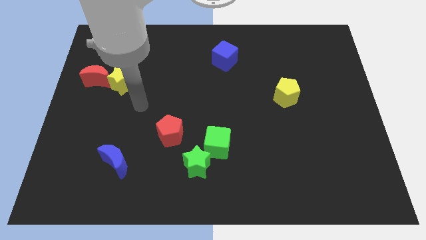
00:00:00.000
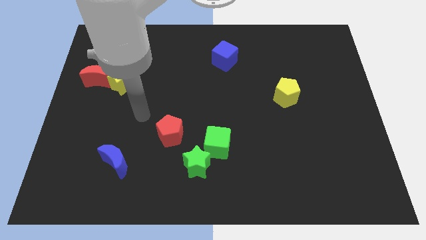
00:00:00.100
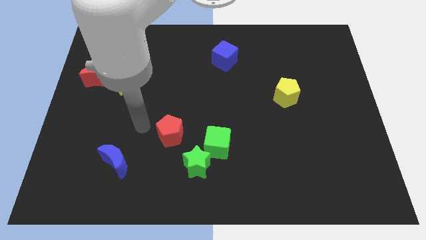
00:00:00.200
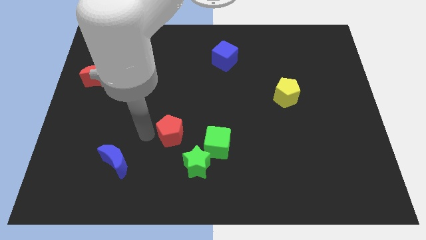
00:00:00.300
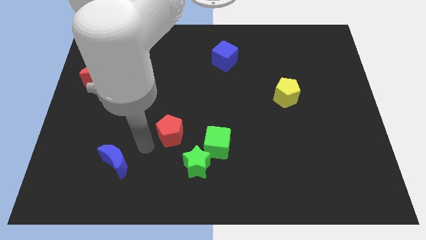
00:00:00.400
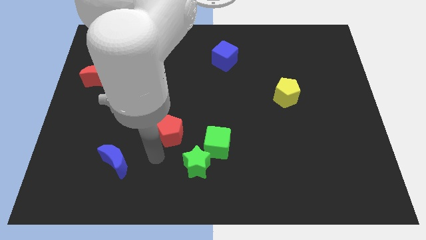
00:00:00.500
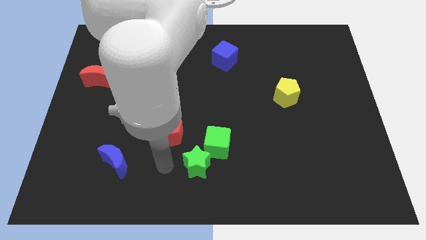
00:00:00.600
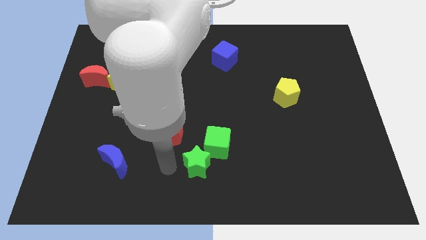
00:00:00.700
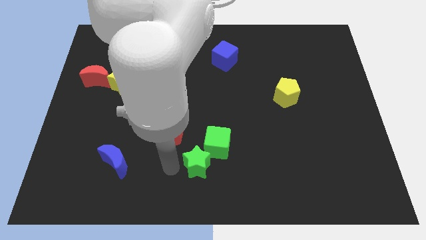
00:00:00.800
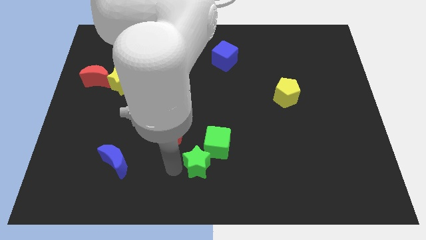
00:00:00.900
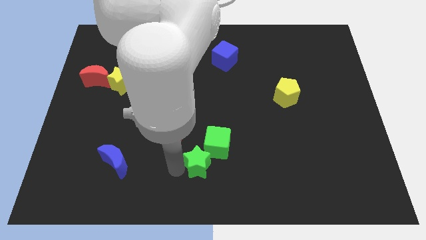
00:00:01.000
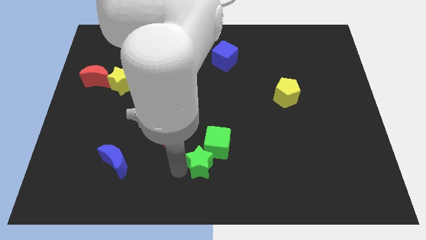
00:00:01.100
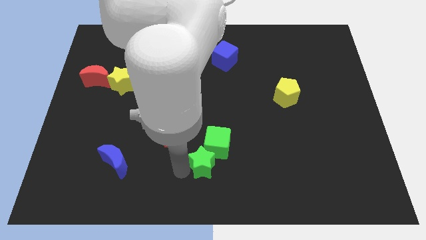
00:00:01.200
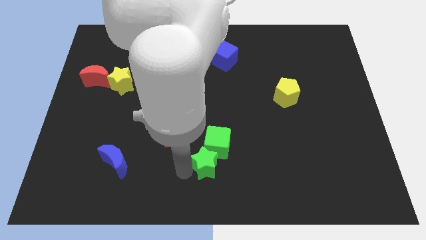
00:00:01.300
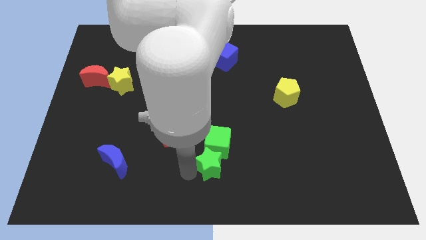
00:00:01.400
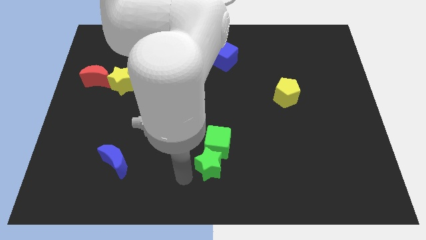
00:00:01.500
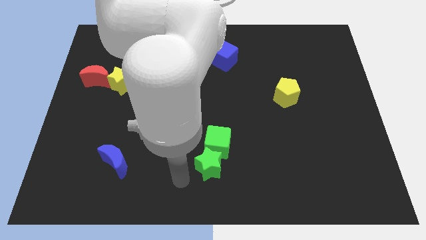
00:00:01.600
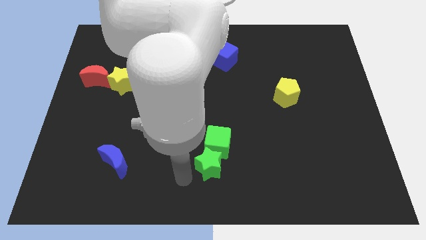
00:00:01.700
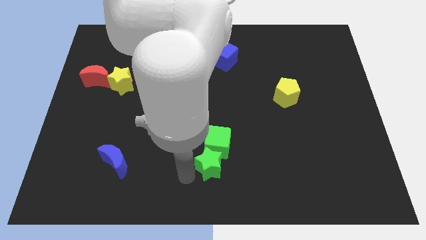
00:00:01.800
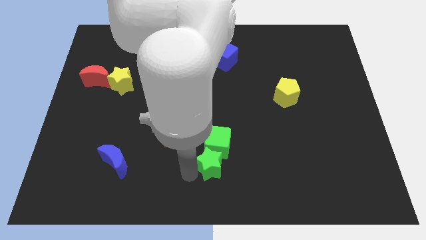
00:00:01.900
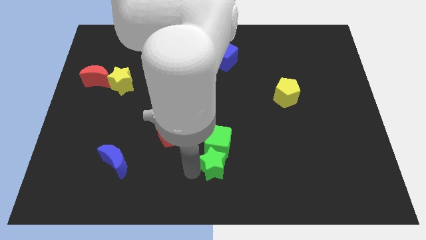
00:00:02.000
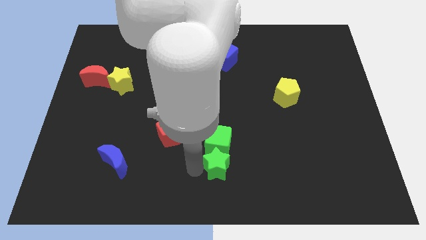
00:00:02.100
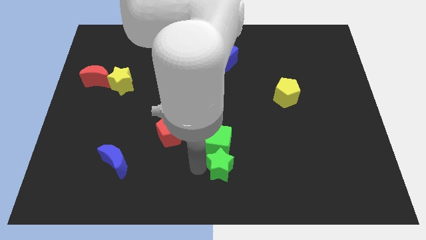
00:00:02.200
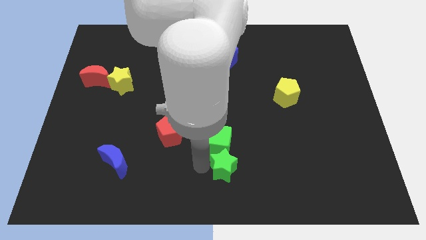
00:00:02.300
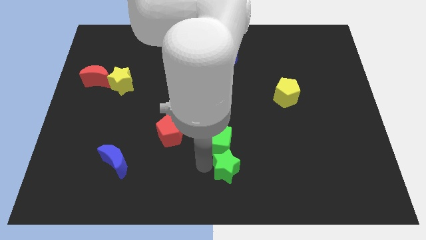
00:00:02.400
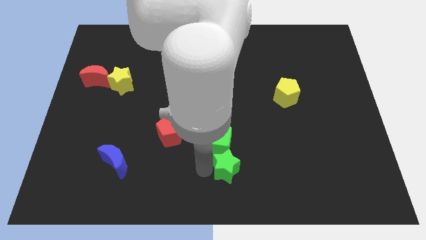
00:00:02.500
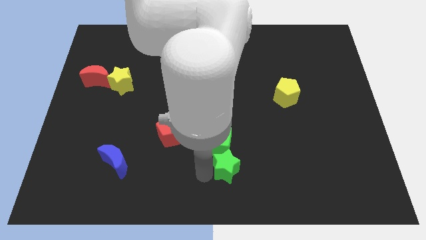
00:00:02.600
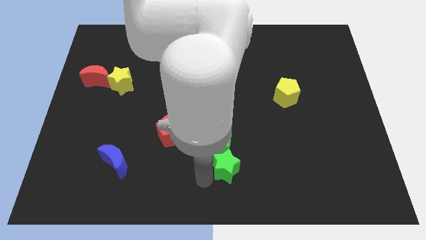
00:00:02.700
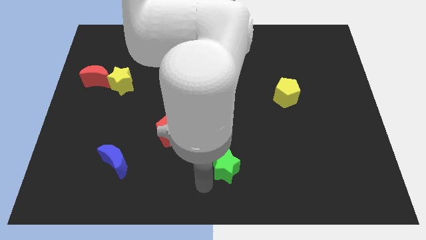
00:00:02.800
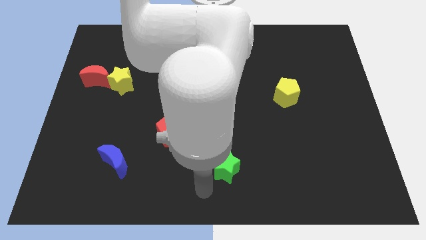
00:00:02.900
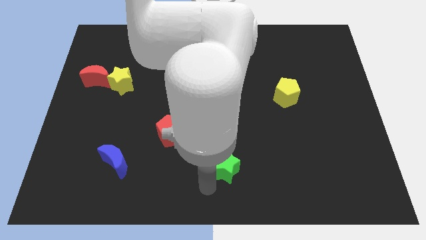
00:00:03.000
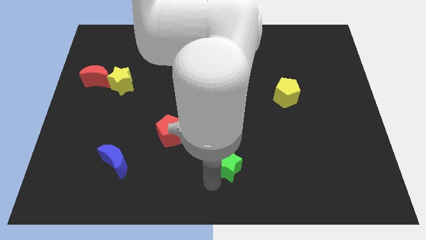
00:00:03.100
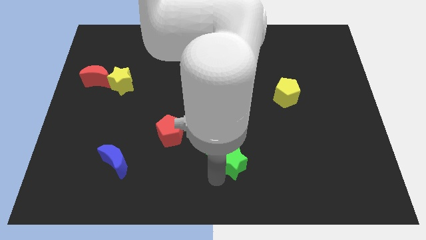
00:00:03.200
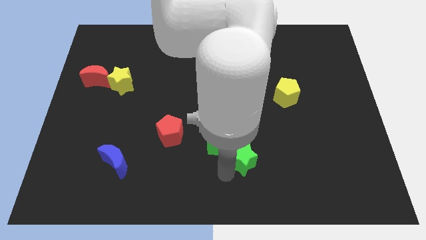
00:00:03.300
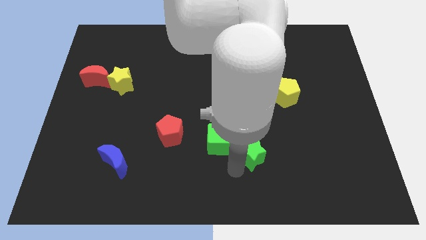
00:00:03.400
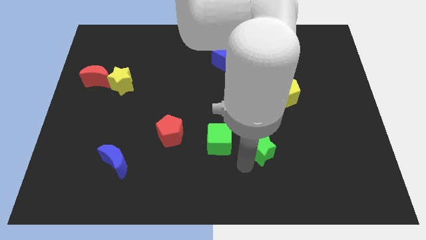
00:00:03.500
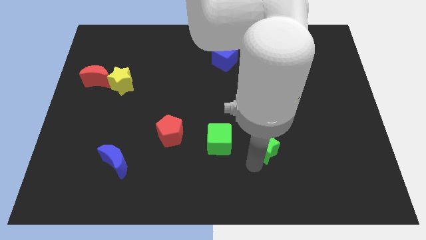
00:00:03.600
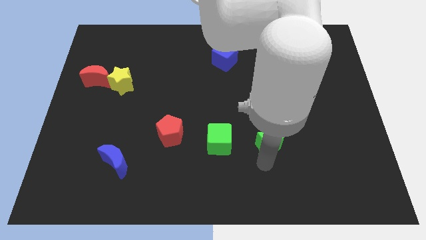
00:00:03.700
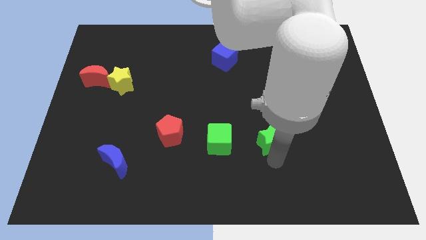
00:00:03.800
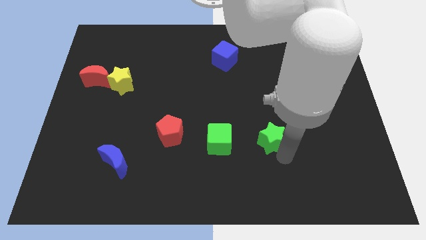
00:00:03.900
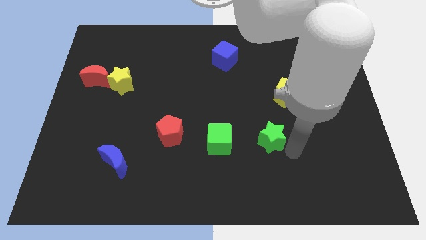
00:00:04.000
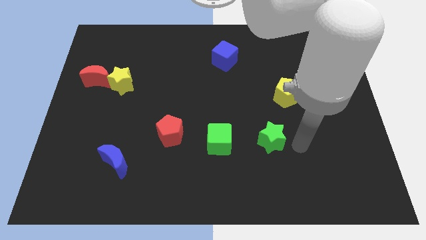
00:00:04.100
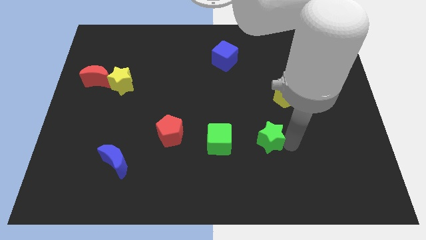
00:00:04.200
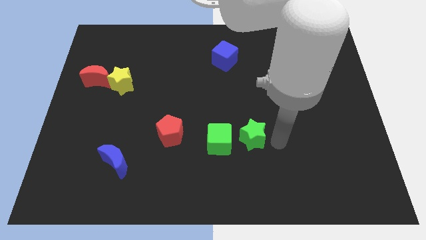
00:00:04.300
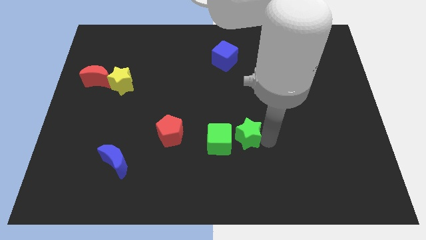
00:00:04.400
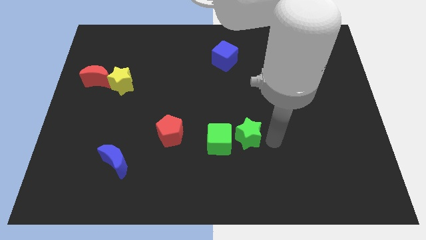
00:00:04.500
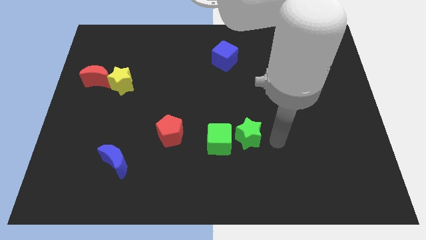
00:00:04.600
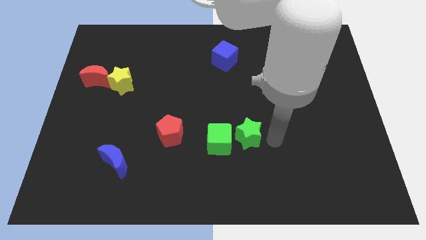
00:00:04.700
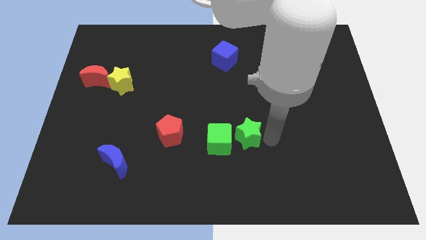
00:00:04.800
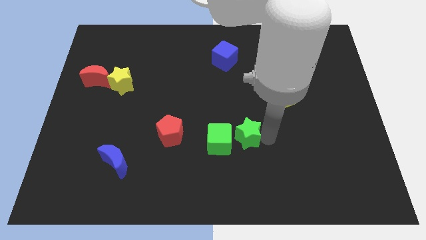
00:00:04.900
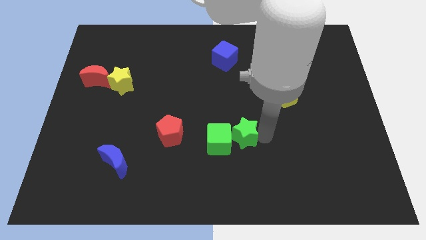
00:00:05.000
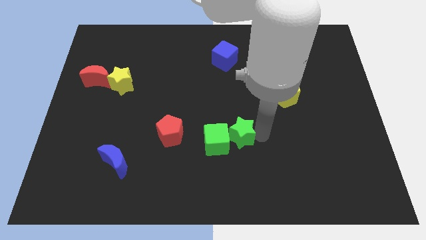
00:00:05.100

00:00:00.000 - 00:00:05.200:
move the green star right of the red pentagon

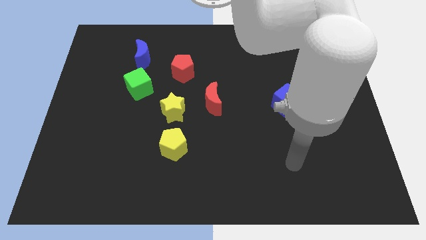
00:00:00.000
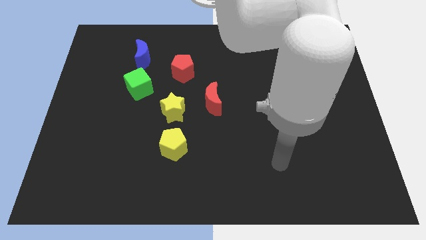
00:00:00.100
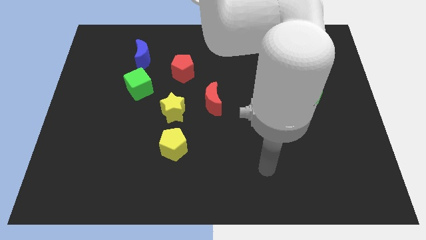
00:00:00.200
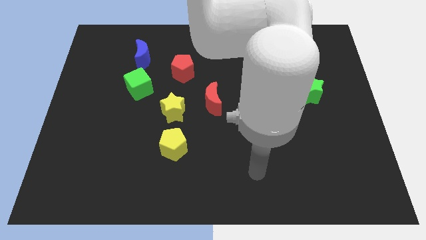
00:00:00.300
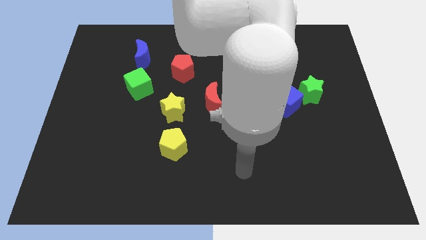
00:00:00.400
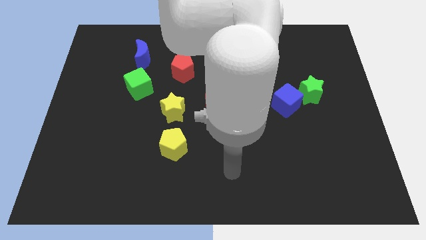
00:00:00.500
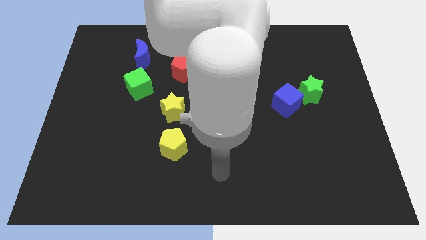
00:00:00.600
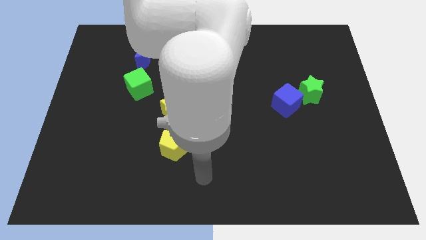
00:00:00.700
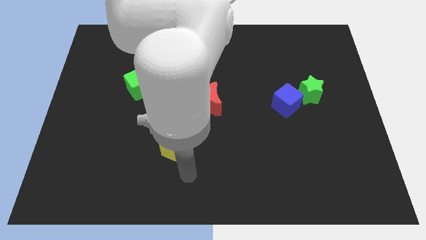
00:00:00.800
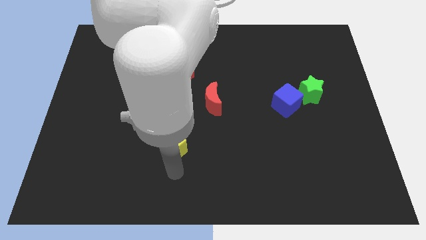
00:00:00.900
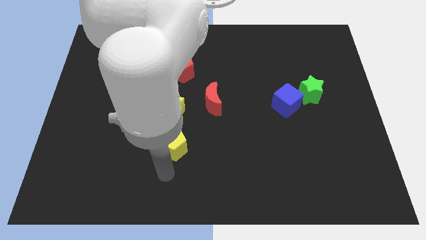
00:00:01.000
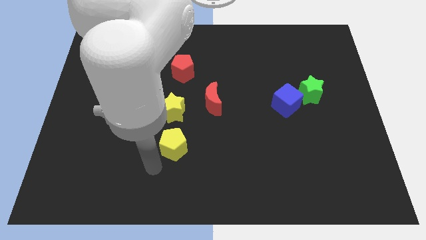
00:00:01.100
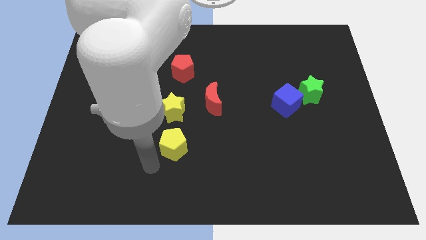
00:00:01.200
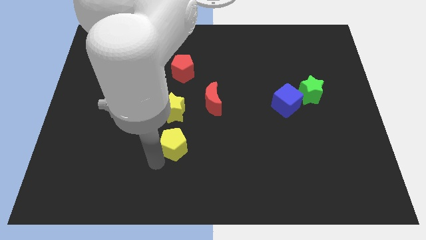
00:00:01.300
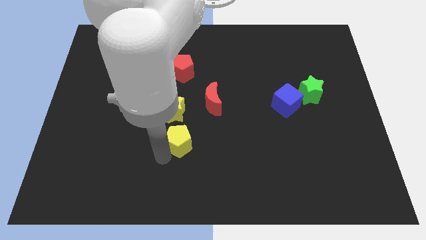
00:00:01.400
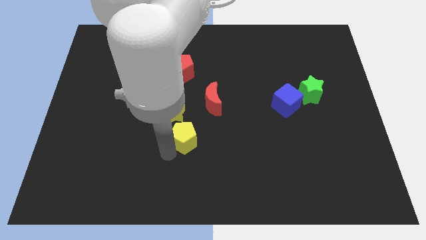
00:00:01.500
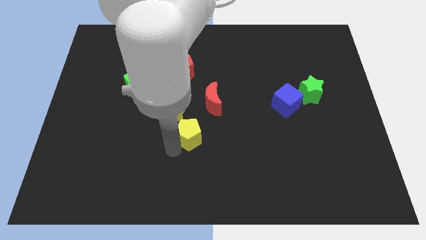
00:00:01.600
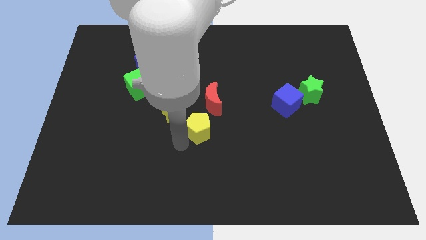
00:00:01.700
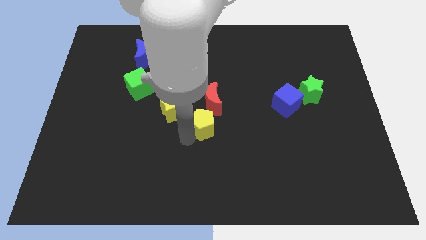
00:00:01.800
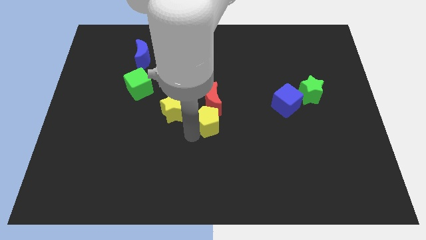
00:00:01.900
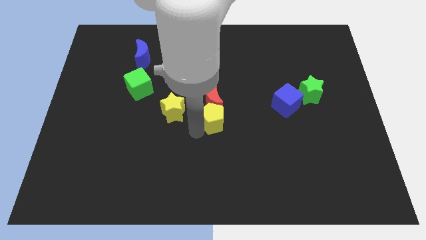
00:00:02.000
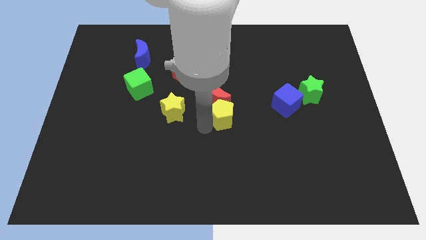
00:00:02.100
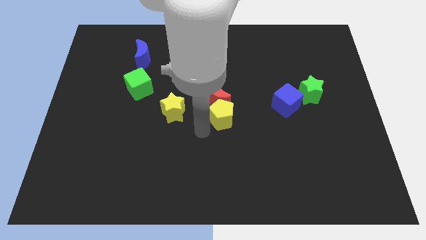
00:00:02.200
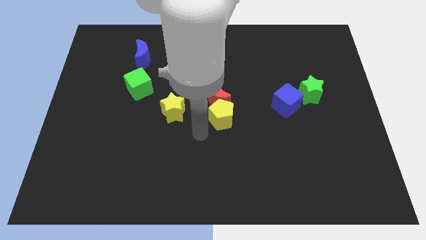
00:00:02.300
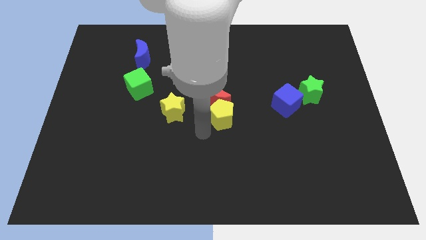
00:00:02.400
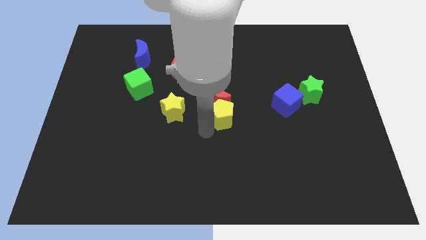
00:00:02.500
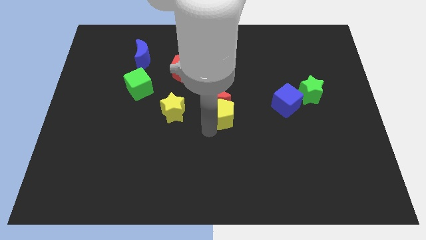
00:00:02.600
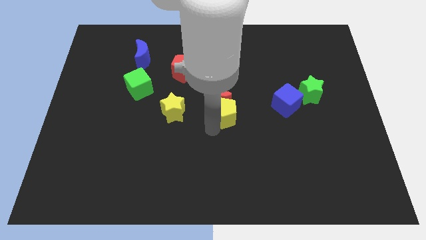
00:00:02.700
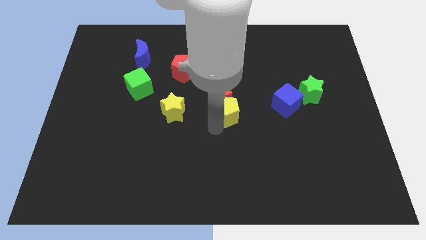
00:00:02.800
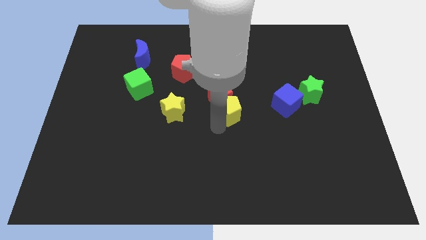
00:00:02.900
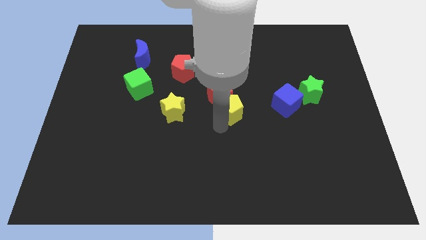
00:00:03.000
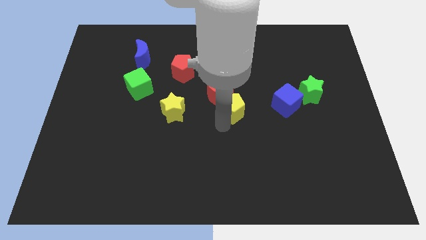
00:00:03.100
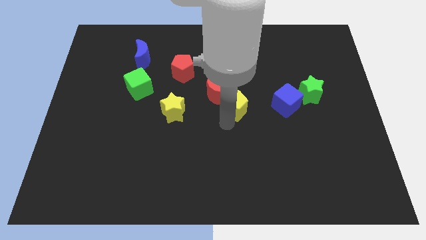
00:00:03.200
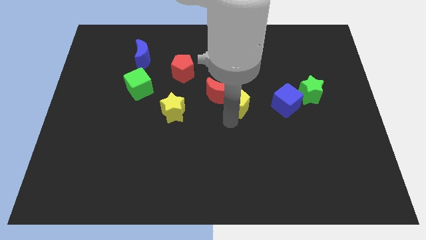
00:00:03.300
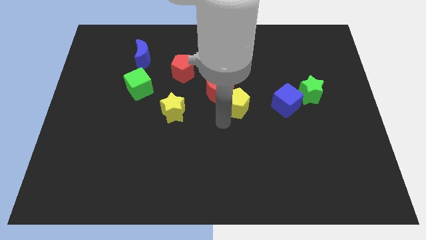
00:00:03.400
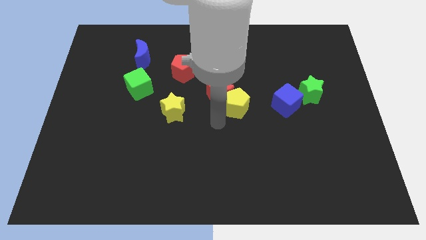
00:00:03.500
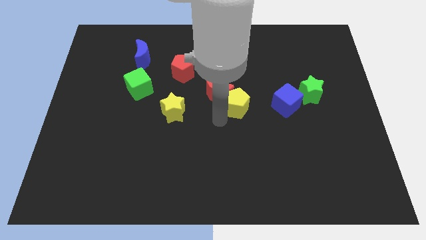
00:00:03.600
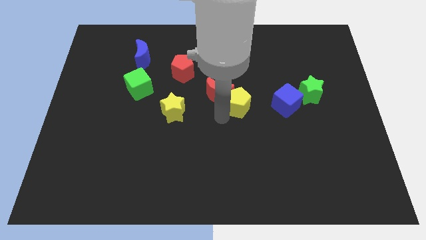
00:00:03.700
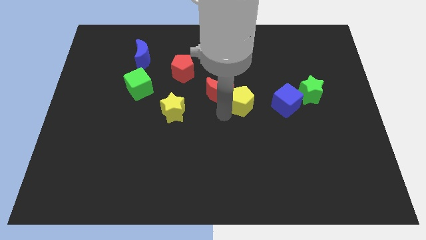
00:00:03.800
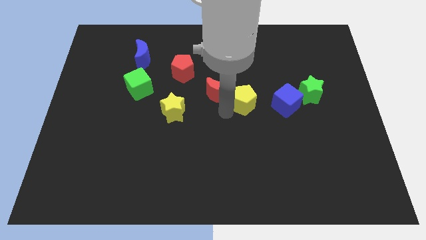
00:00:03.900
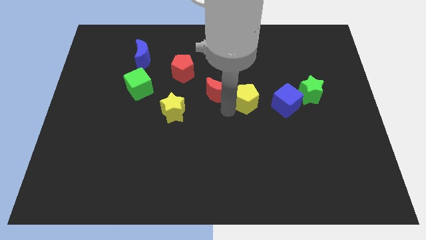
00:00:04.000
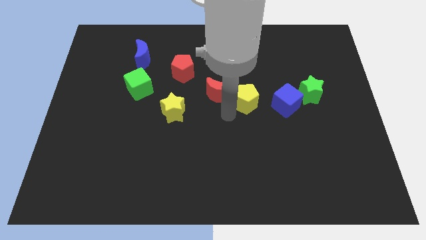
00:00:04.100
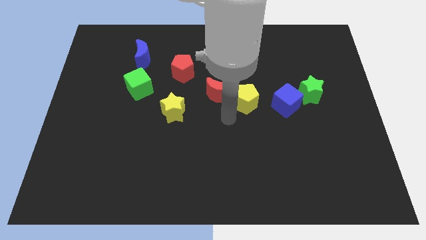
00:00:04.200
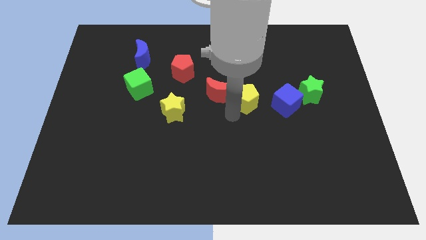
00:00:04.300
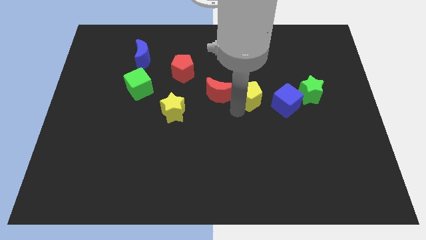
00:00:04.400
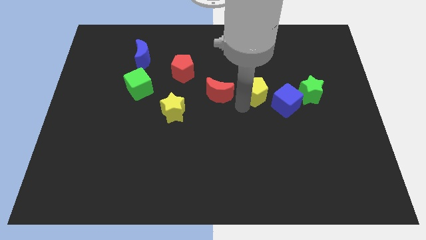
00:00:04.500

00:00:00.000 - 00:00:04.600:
slide the yellow pentagon to the top left side of the blue cube
